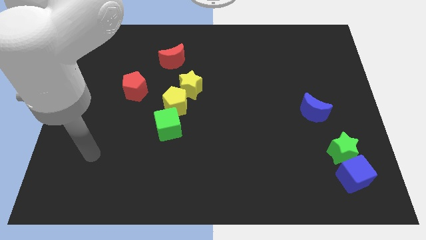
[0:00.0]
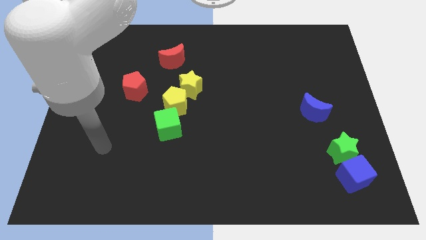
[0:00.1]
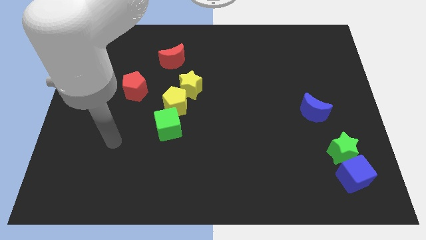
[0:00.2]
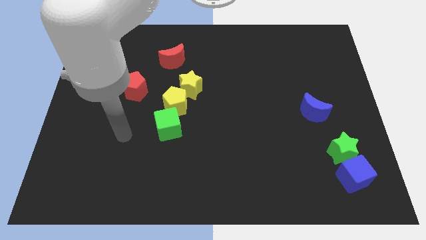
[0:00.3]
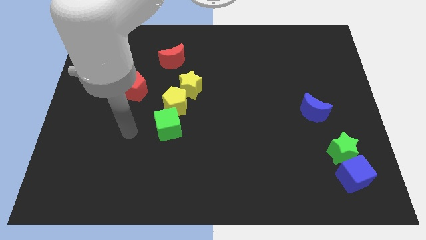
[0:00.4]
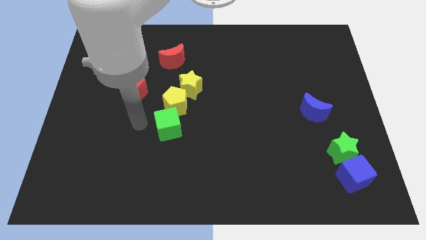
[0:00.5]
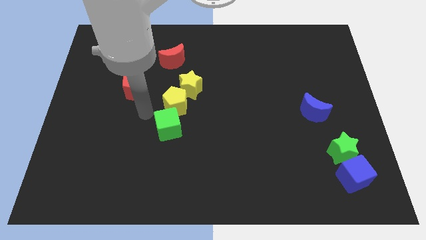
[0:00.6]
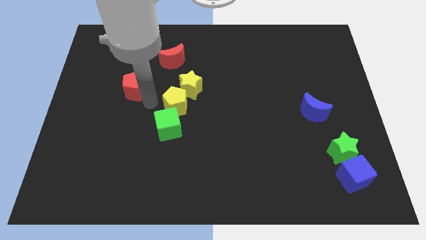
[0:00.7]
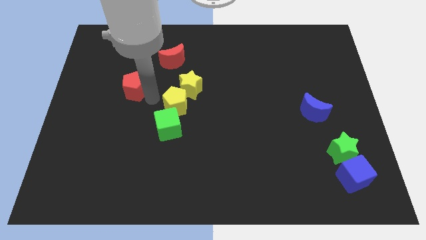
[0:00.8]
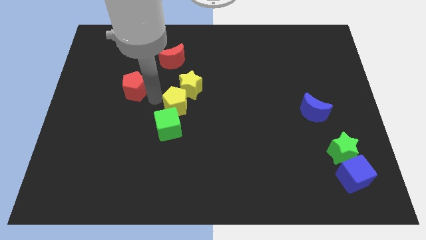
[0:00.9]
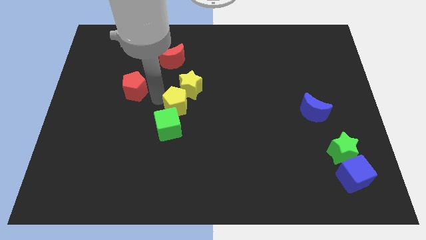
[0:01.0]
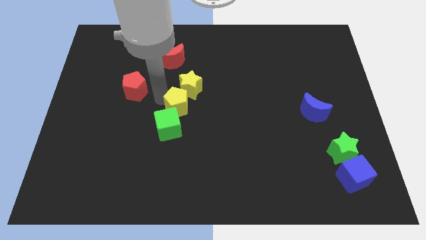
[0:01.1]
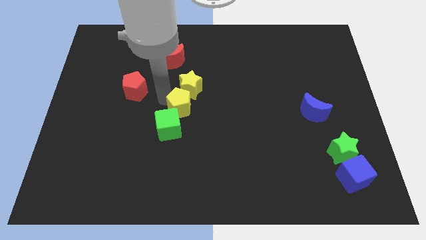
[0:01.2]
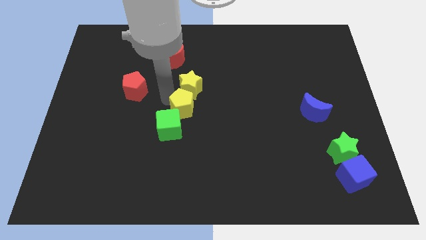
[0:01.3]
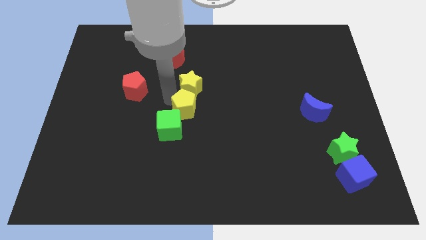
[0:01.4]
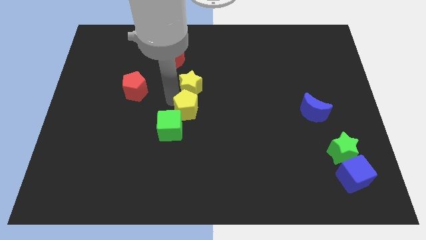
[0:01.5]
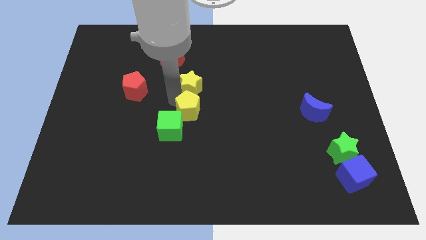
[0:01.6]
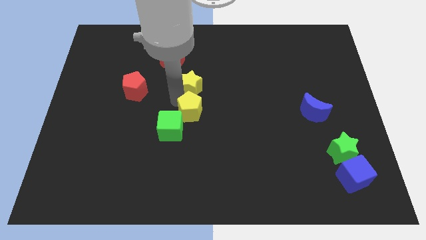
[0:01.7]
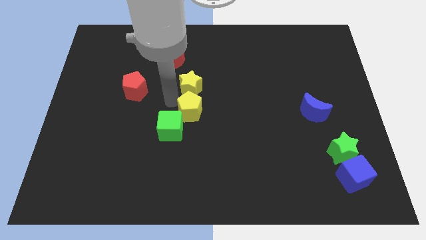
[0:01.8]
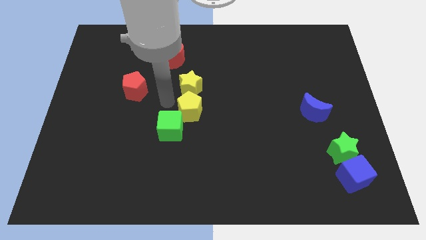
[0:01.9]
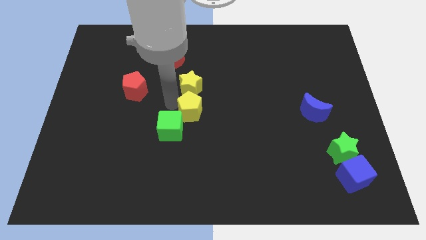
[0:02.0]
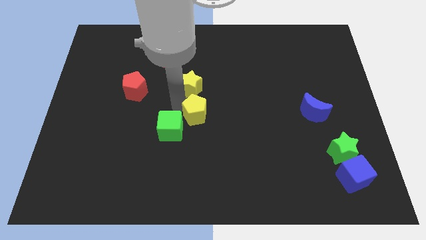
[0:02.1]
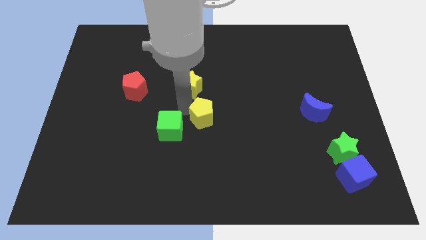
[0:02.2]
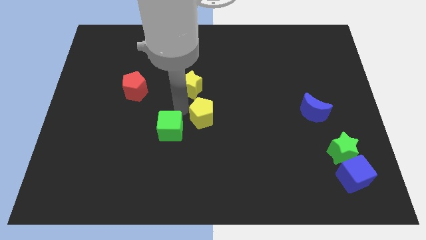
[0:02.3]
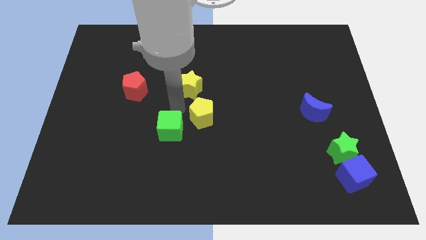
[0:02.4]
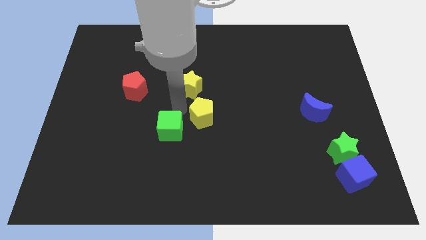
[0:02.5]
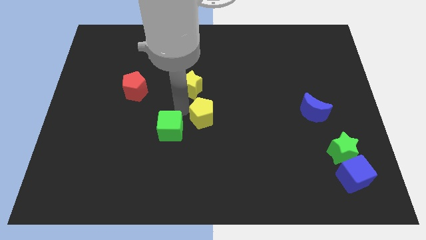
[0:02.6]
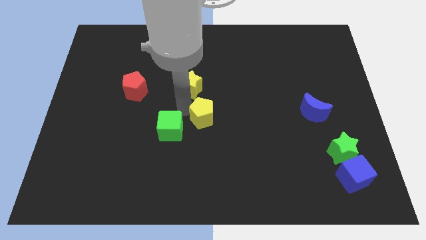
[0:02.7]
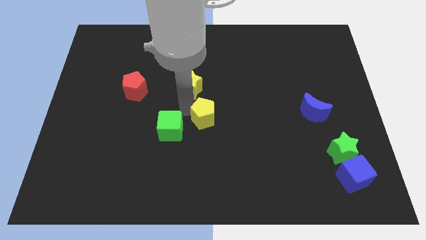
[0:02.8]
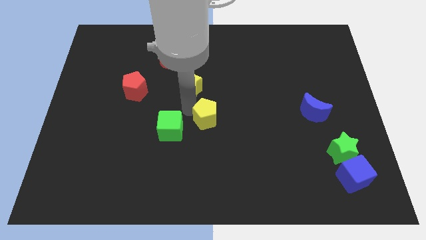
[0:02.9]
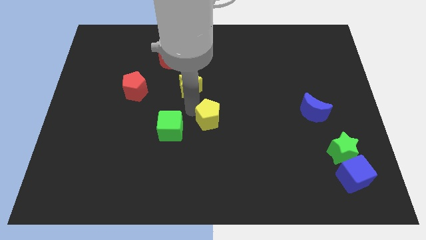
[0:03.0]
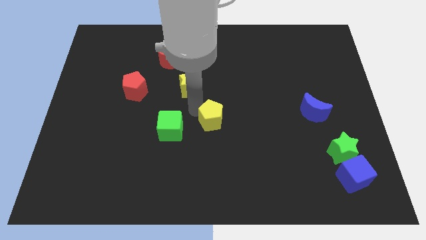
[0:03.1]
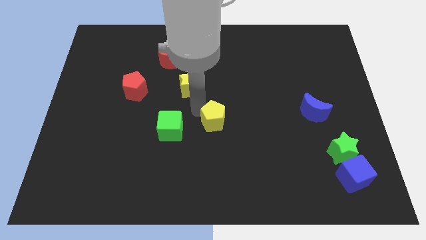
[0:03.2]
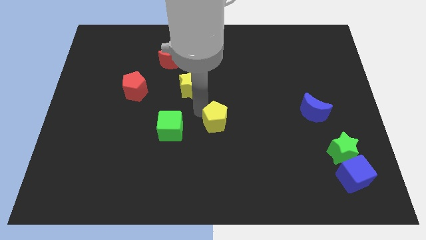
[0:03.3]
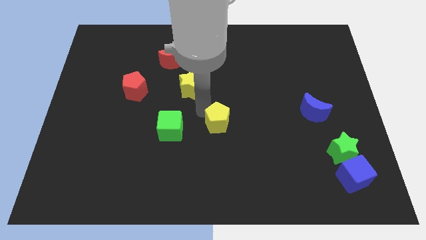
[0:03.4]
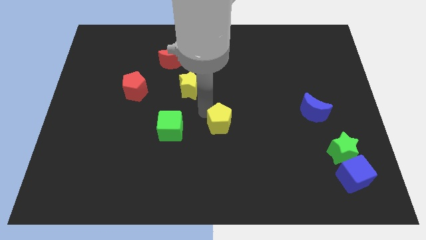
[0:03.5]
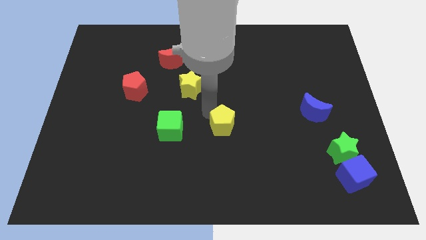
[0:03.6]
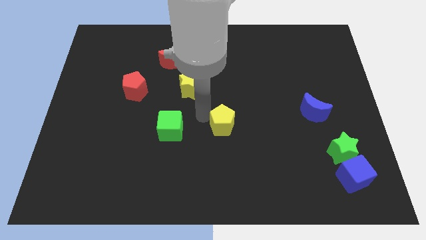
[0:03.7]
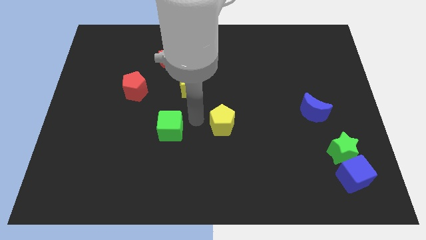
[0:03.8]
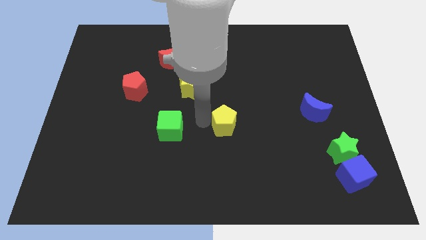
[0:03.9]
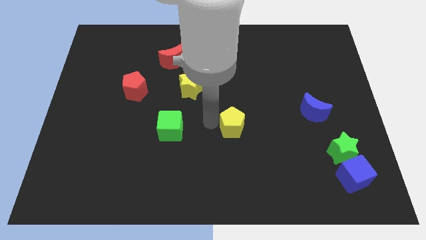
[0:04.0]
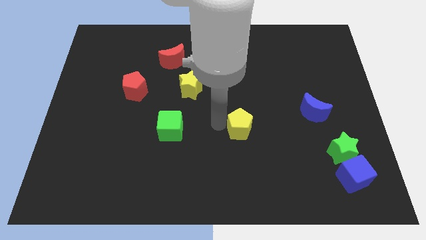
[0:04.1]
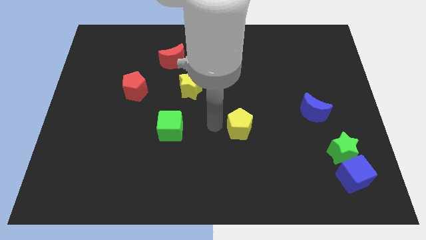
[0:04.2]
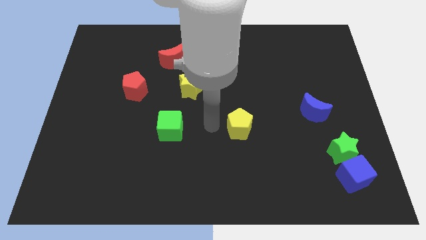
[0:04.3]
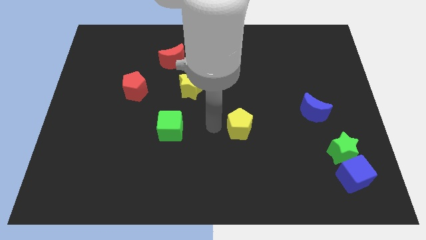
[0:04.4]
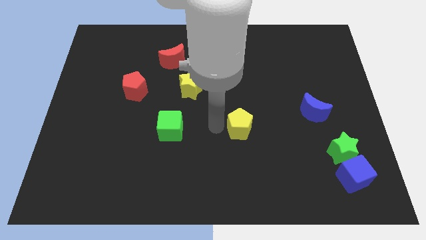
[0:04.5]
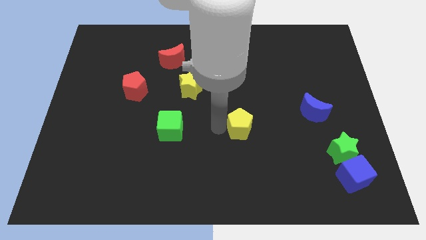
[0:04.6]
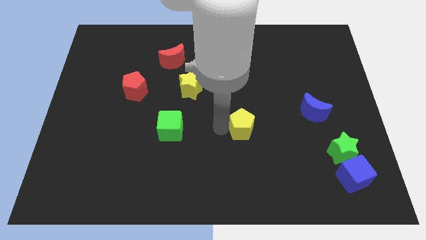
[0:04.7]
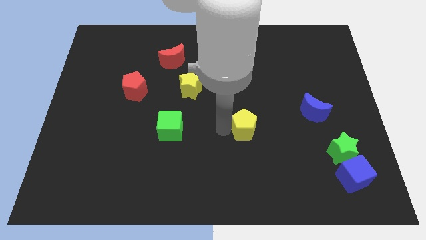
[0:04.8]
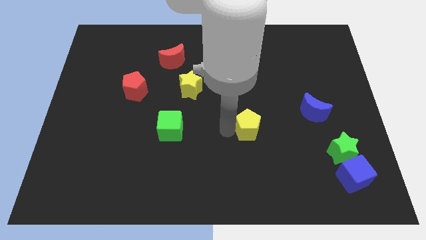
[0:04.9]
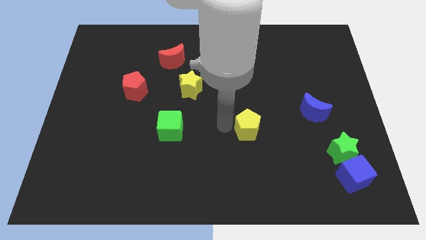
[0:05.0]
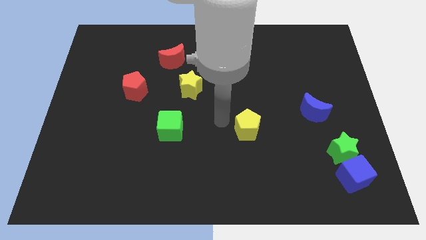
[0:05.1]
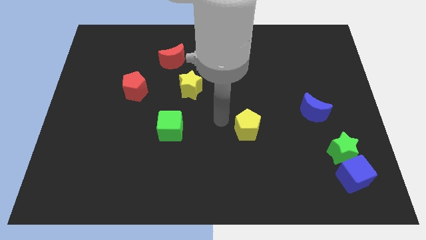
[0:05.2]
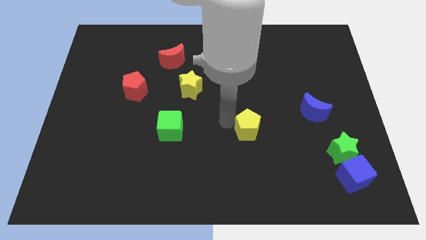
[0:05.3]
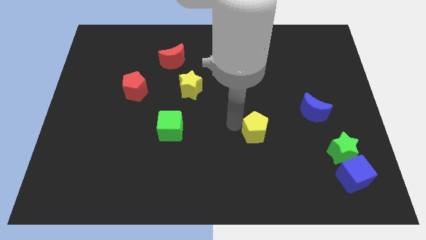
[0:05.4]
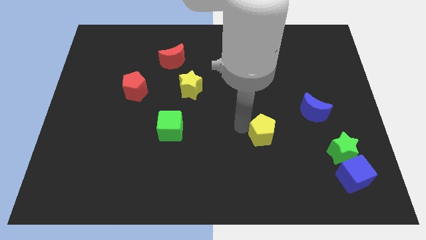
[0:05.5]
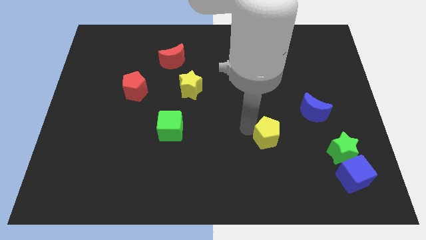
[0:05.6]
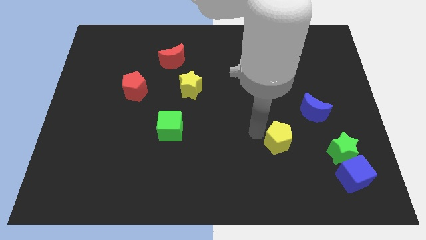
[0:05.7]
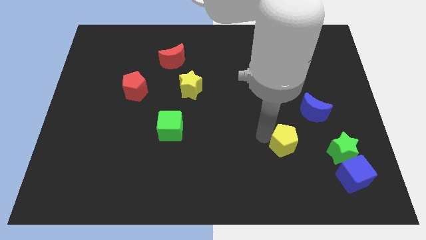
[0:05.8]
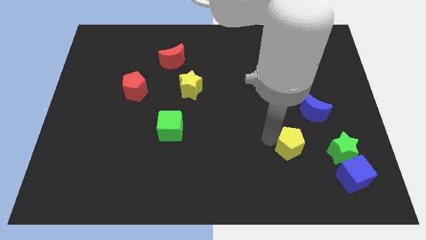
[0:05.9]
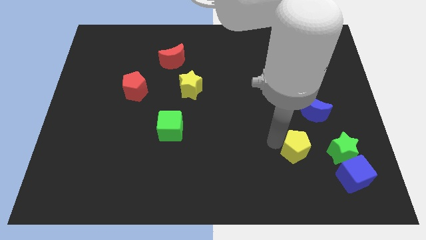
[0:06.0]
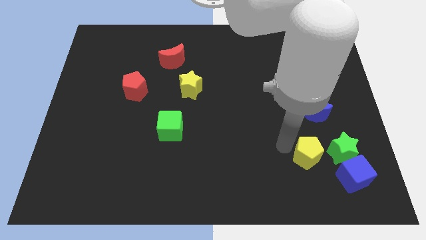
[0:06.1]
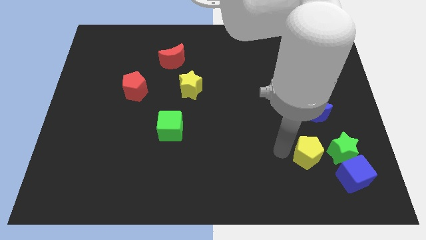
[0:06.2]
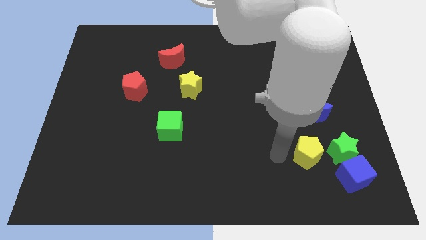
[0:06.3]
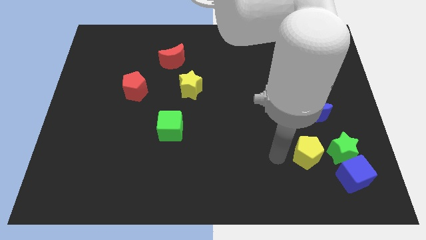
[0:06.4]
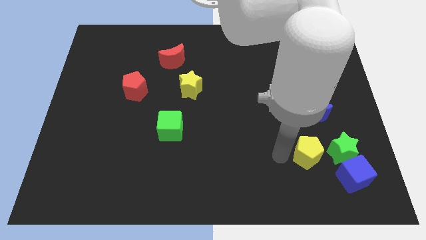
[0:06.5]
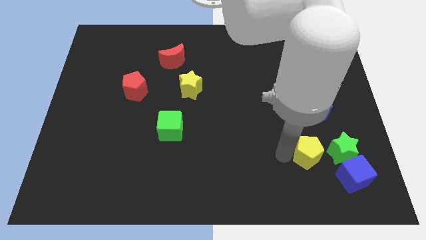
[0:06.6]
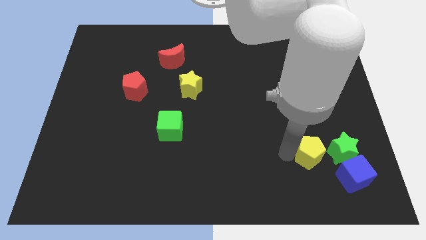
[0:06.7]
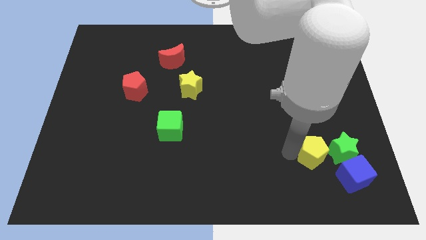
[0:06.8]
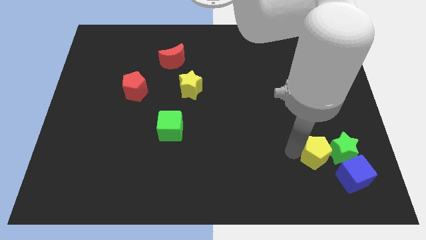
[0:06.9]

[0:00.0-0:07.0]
move the yellow pentagon to the green star

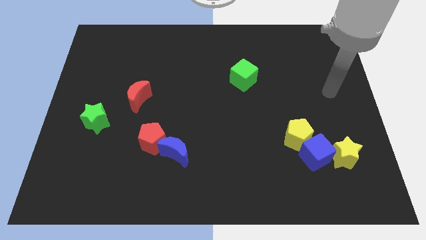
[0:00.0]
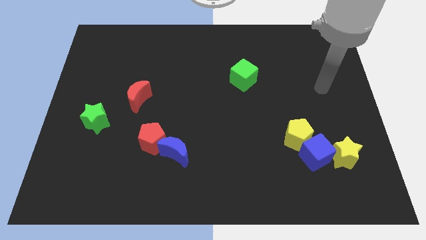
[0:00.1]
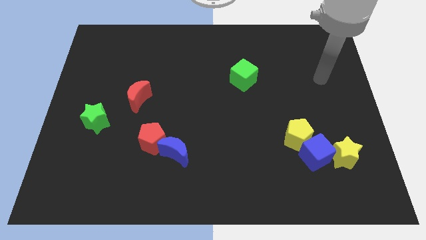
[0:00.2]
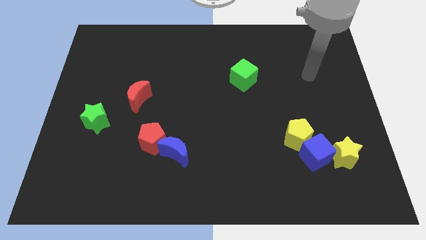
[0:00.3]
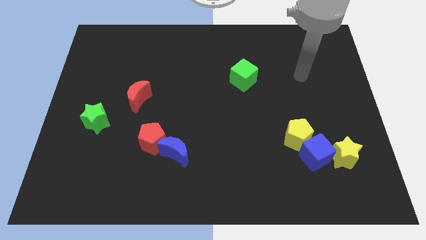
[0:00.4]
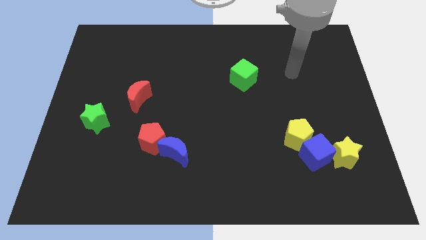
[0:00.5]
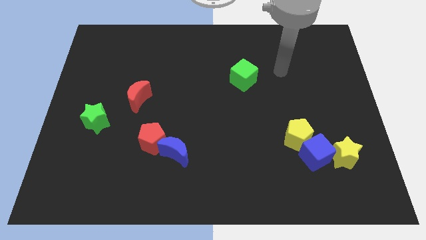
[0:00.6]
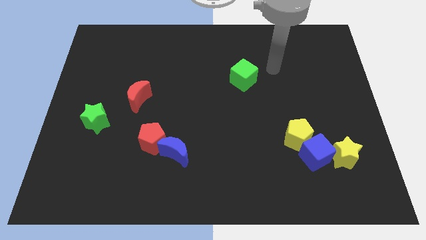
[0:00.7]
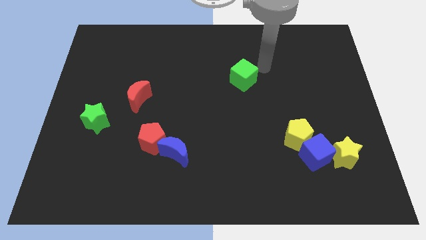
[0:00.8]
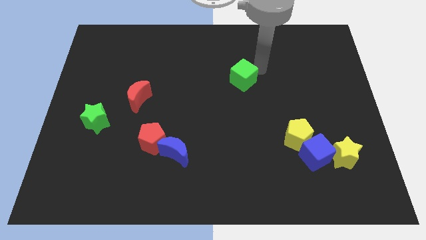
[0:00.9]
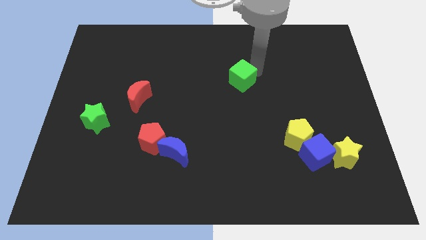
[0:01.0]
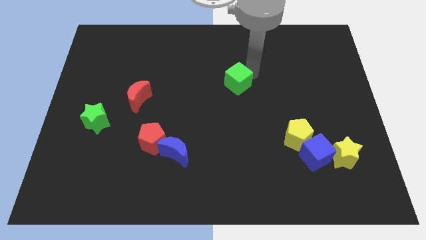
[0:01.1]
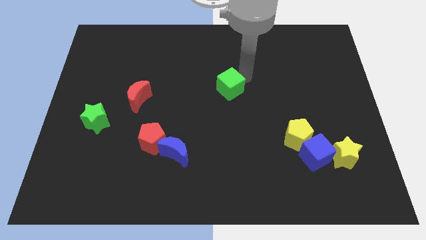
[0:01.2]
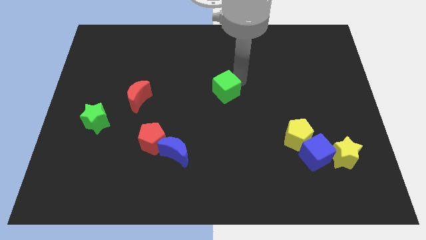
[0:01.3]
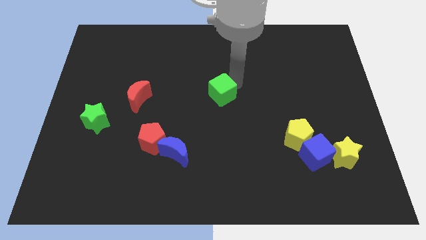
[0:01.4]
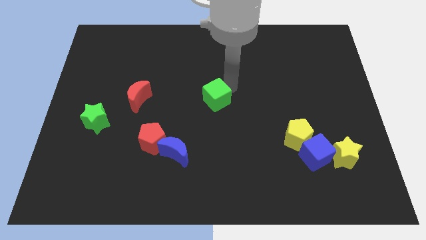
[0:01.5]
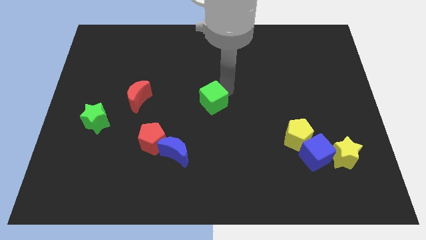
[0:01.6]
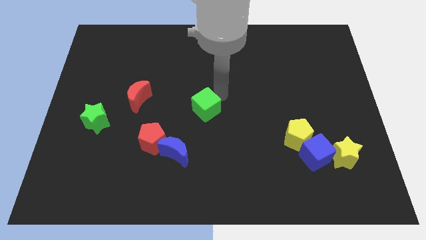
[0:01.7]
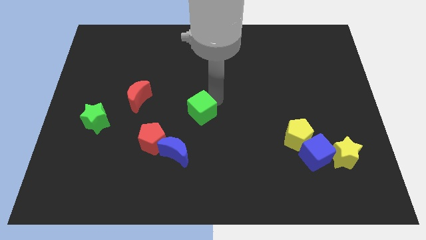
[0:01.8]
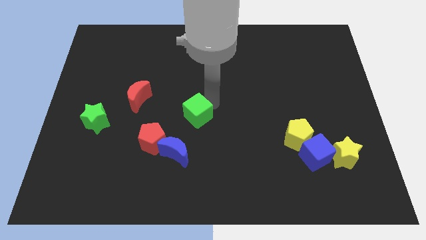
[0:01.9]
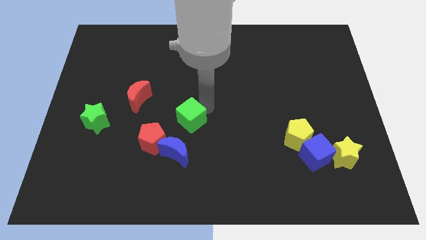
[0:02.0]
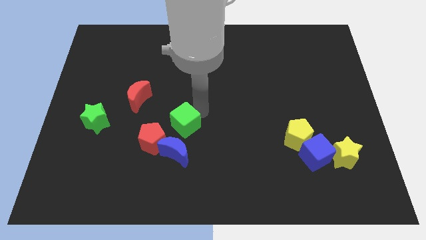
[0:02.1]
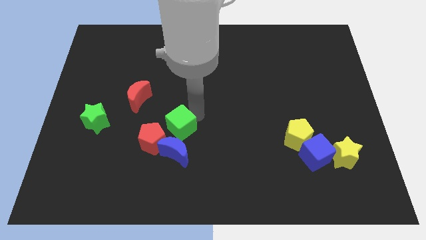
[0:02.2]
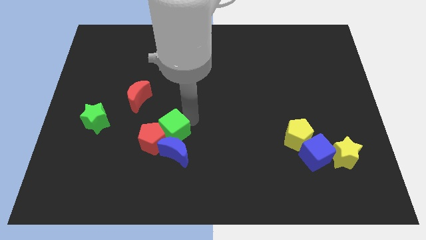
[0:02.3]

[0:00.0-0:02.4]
push the green cube towards the red pentagon
